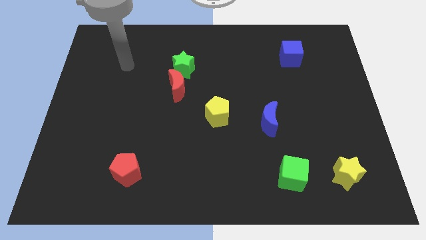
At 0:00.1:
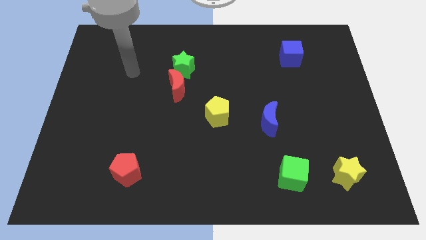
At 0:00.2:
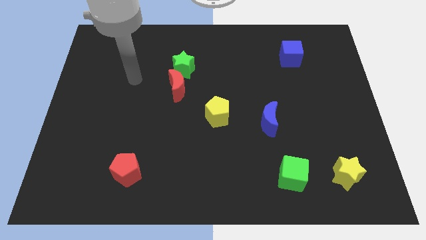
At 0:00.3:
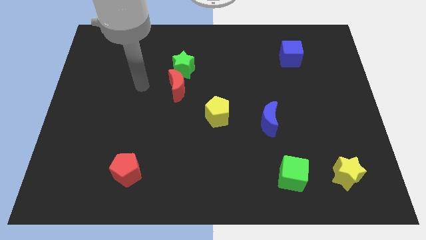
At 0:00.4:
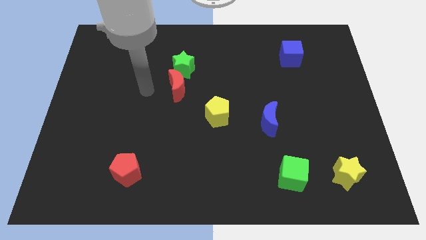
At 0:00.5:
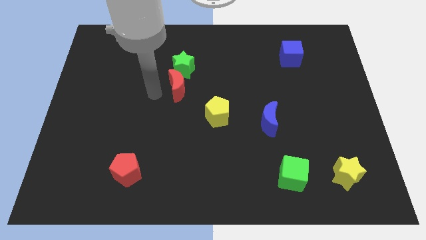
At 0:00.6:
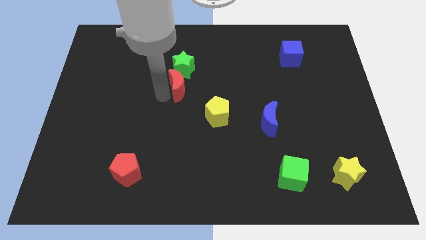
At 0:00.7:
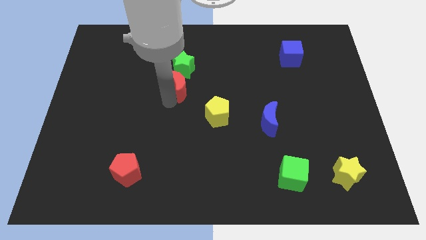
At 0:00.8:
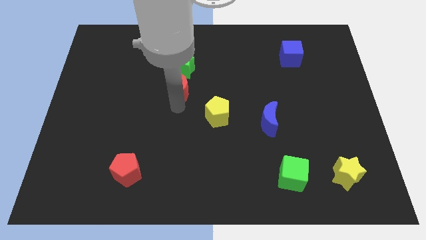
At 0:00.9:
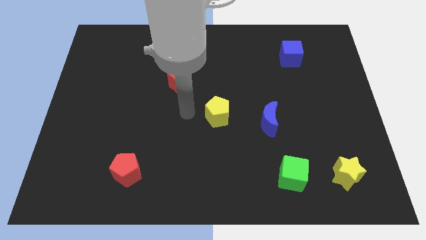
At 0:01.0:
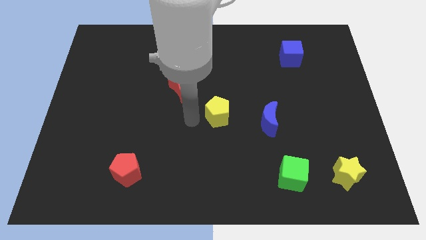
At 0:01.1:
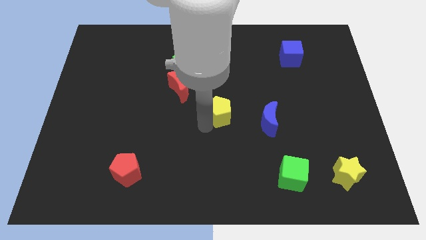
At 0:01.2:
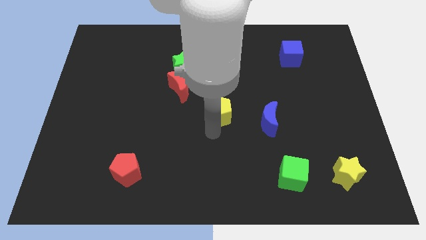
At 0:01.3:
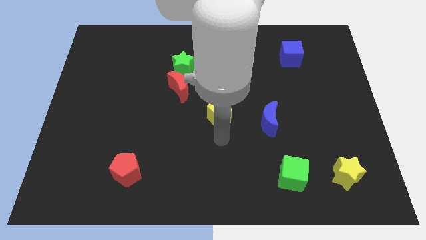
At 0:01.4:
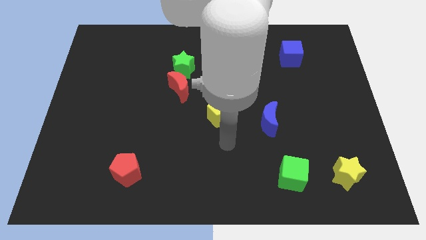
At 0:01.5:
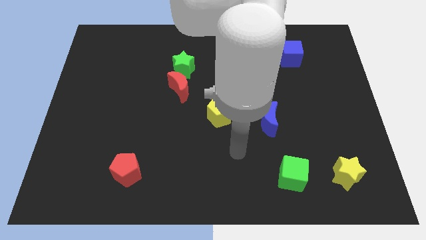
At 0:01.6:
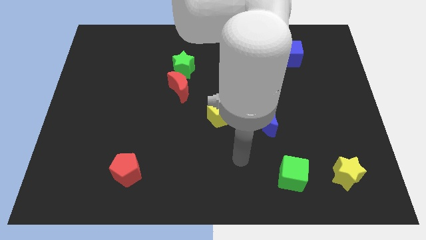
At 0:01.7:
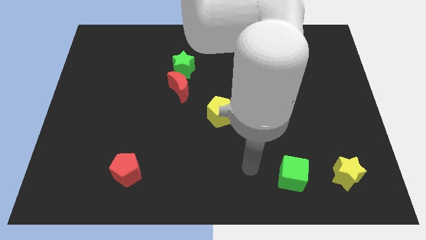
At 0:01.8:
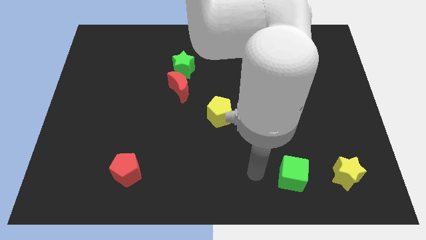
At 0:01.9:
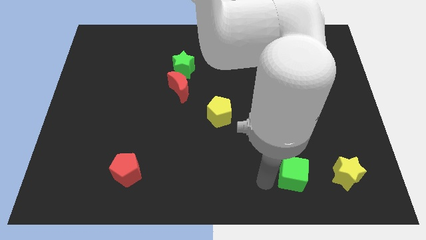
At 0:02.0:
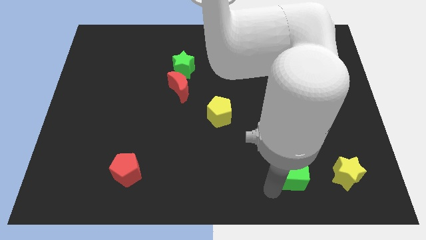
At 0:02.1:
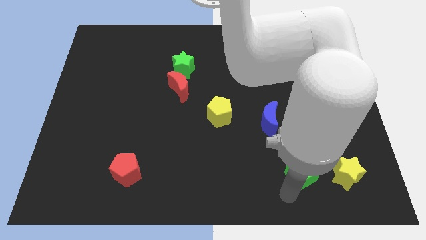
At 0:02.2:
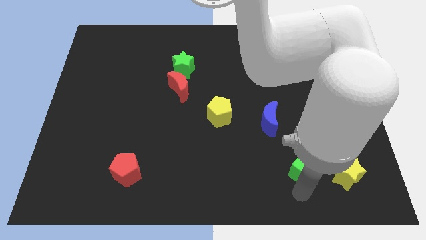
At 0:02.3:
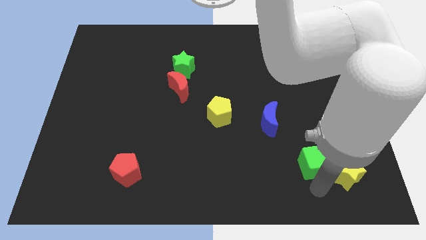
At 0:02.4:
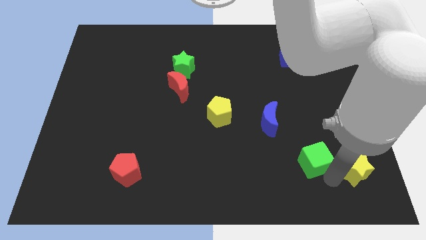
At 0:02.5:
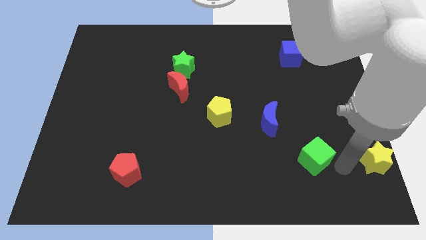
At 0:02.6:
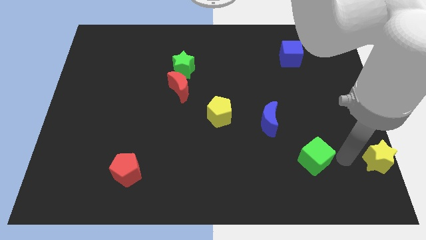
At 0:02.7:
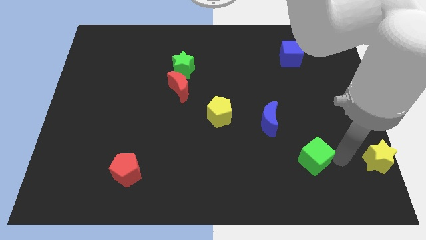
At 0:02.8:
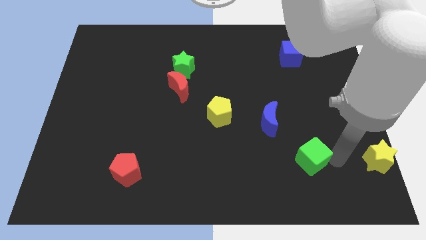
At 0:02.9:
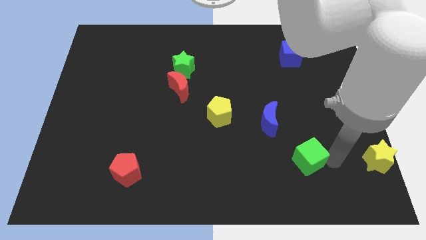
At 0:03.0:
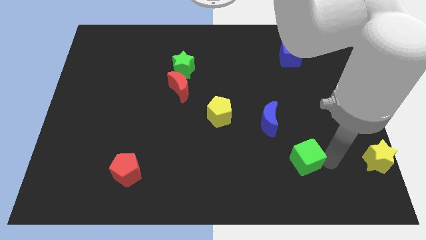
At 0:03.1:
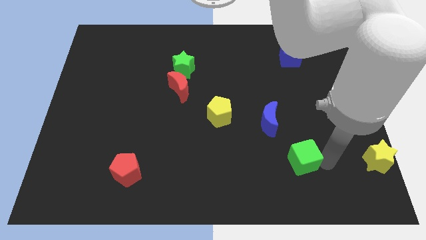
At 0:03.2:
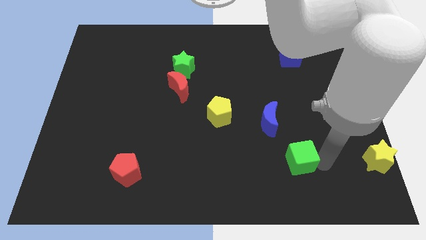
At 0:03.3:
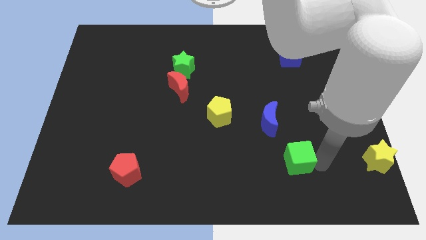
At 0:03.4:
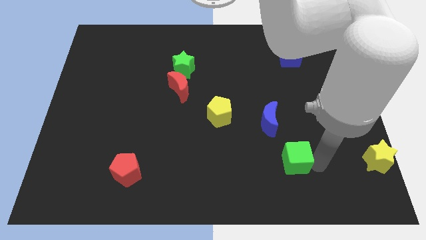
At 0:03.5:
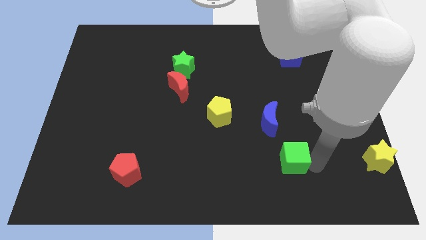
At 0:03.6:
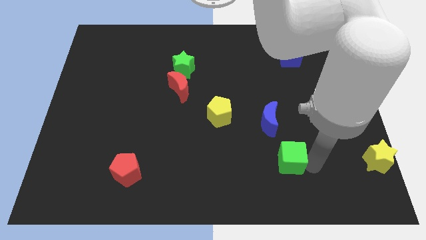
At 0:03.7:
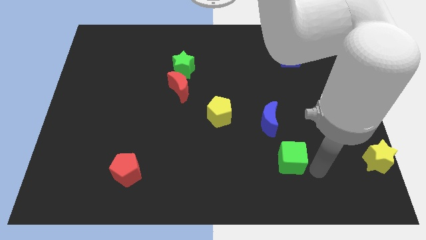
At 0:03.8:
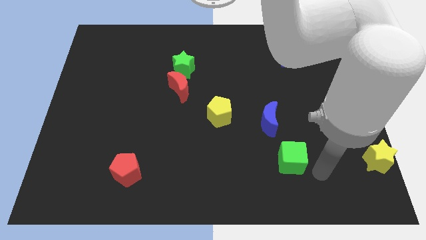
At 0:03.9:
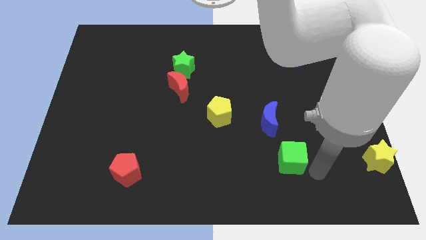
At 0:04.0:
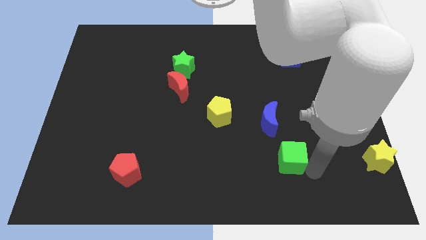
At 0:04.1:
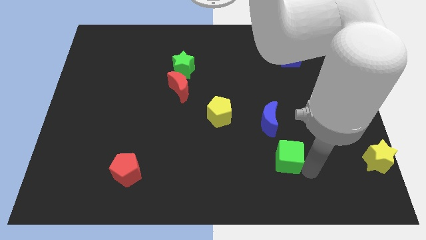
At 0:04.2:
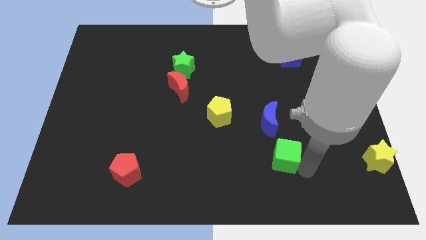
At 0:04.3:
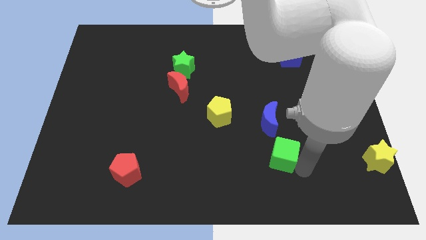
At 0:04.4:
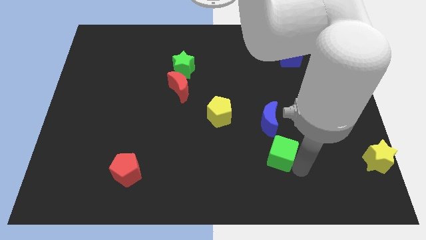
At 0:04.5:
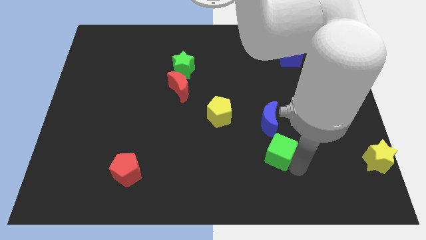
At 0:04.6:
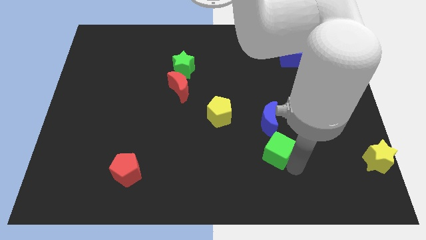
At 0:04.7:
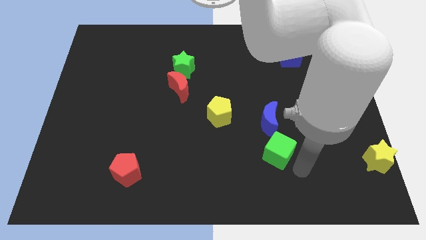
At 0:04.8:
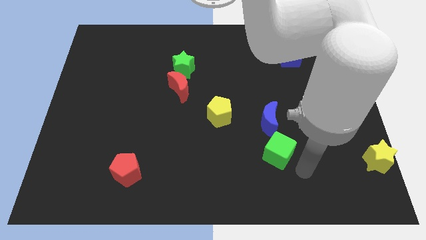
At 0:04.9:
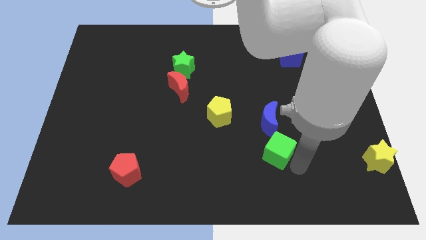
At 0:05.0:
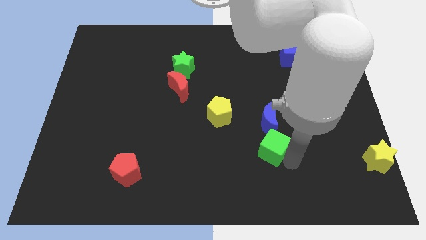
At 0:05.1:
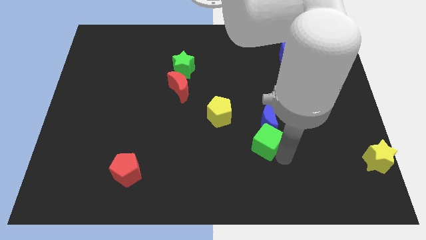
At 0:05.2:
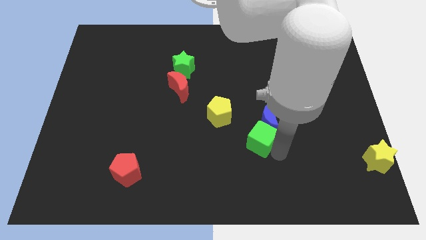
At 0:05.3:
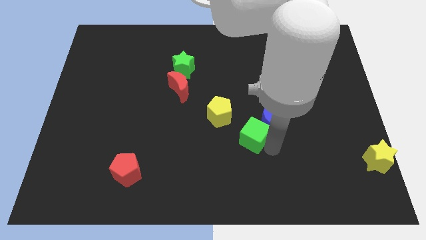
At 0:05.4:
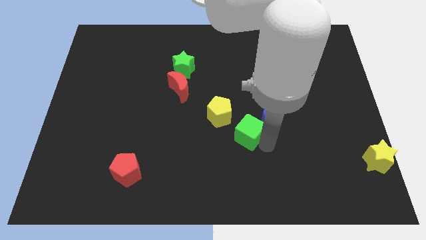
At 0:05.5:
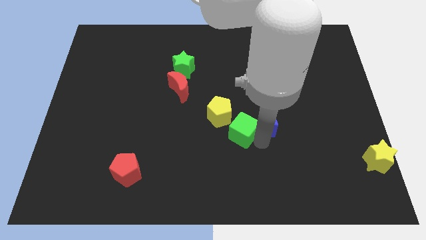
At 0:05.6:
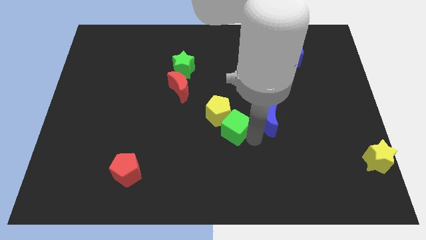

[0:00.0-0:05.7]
move the green cube close to the yellow pentagon

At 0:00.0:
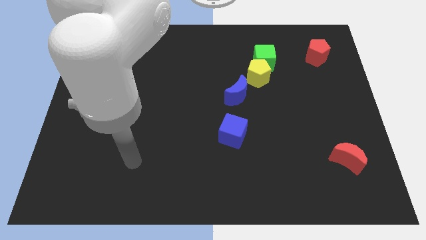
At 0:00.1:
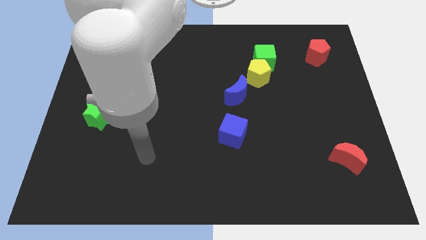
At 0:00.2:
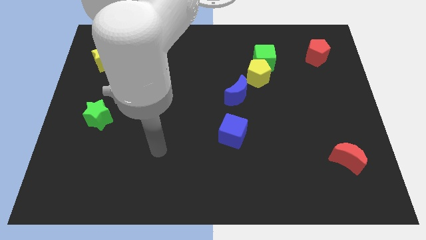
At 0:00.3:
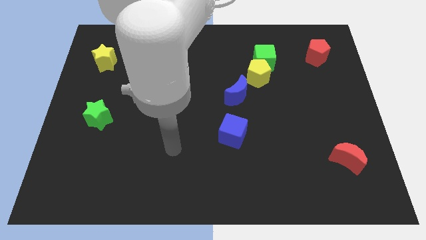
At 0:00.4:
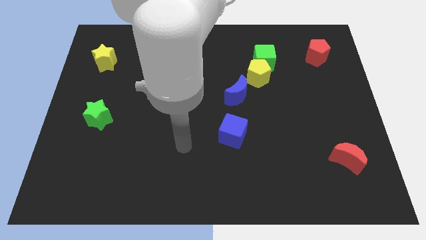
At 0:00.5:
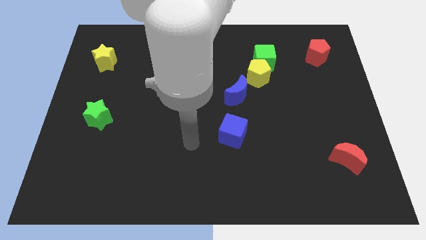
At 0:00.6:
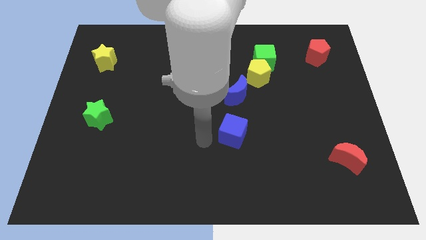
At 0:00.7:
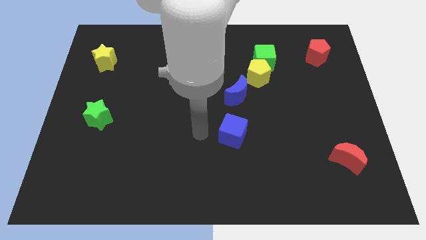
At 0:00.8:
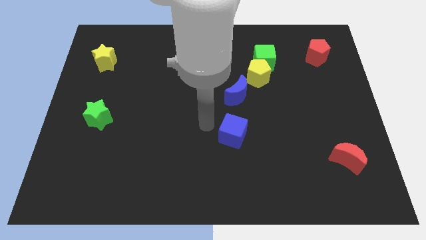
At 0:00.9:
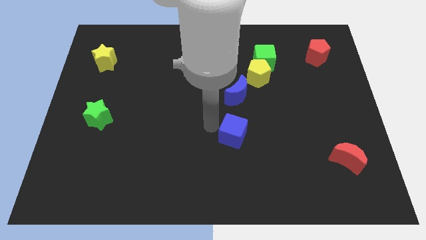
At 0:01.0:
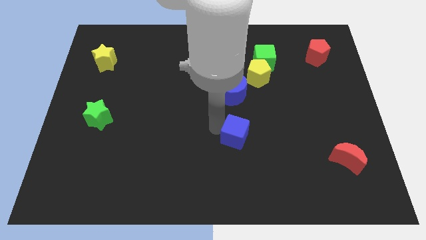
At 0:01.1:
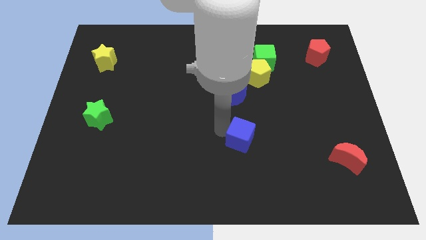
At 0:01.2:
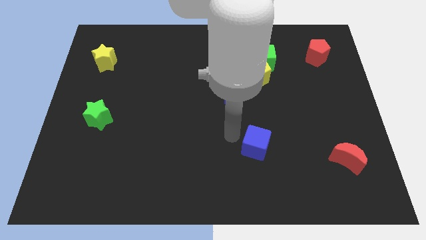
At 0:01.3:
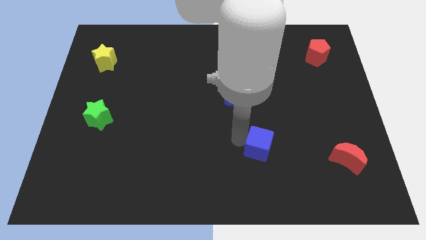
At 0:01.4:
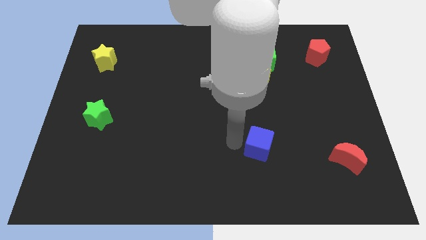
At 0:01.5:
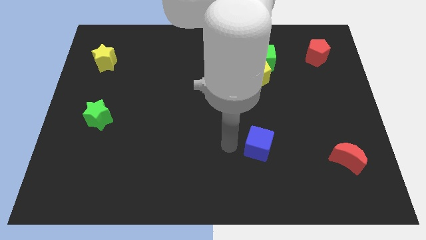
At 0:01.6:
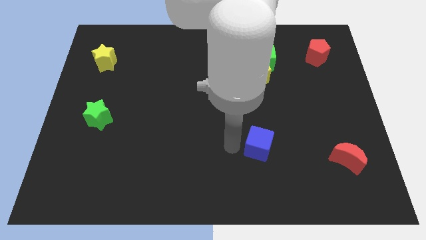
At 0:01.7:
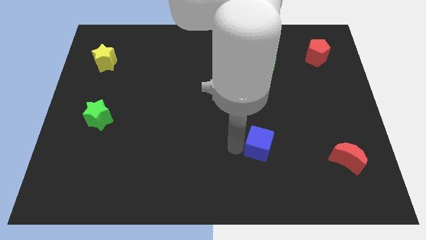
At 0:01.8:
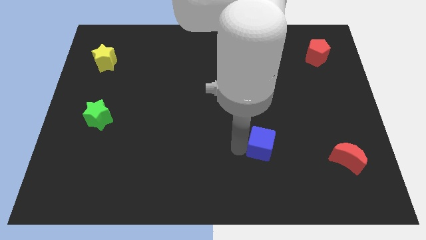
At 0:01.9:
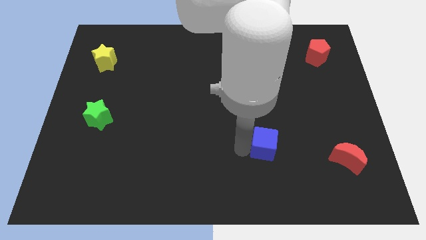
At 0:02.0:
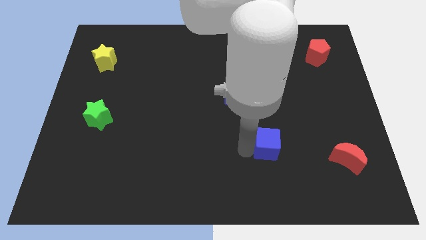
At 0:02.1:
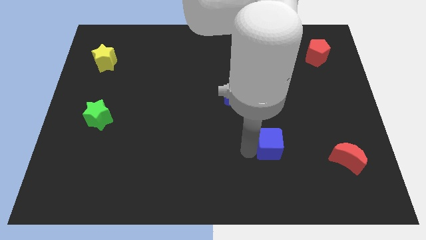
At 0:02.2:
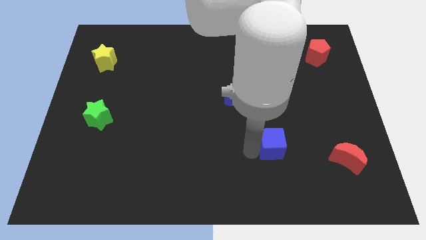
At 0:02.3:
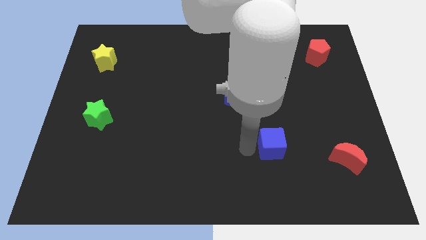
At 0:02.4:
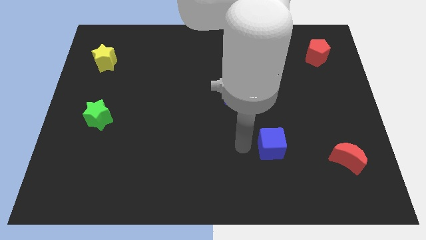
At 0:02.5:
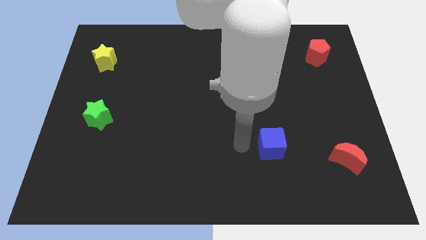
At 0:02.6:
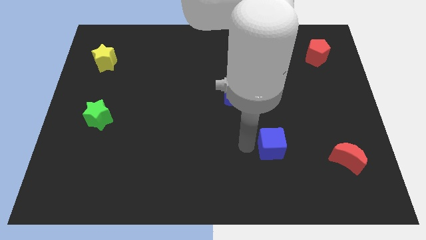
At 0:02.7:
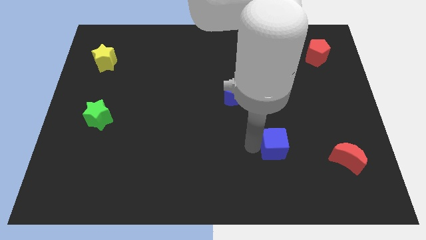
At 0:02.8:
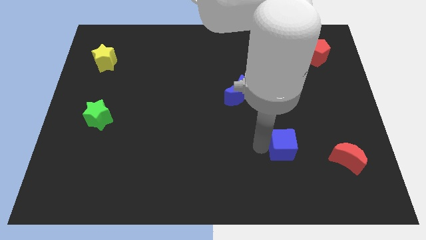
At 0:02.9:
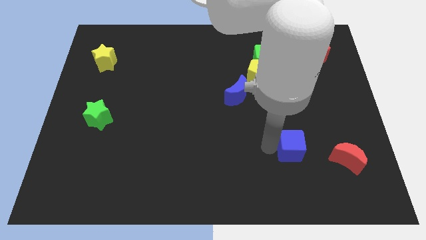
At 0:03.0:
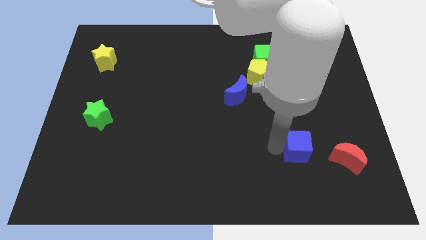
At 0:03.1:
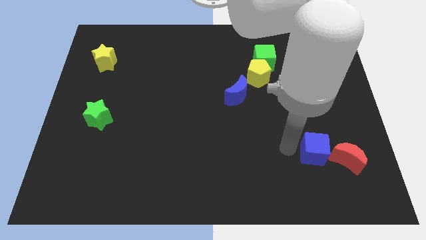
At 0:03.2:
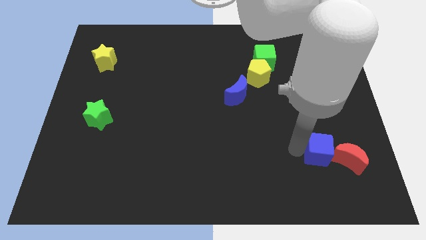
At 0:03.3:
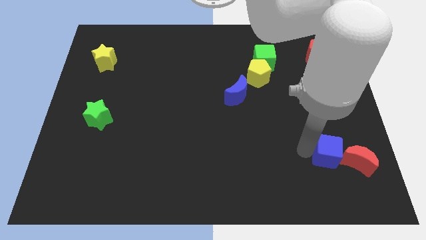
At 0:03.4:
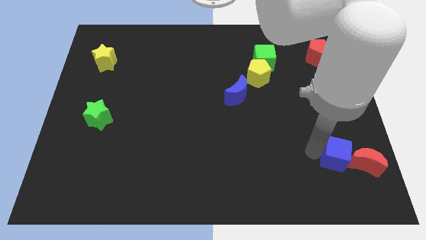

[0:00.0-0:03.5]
put the blue cube towards the red moon
